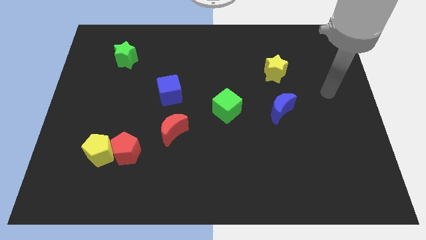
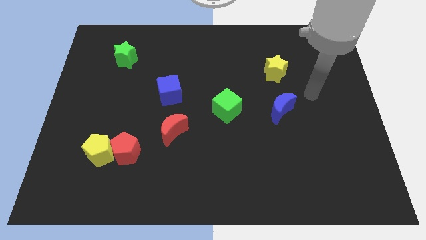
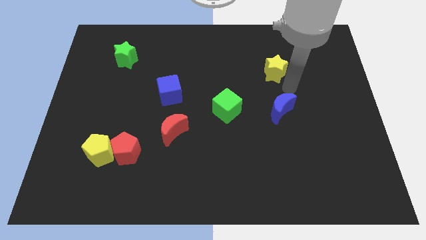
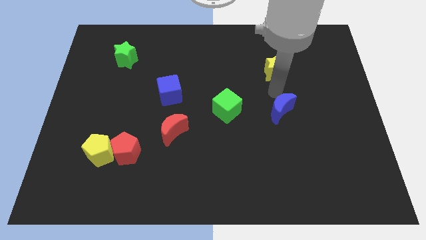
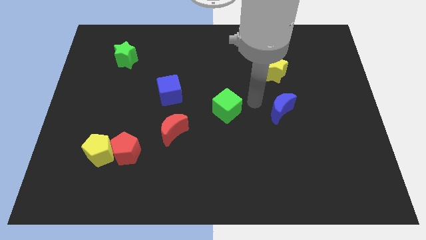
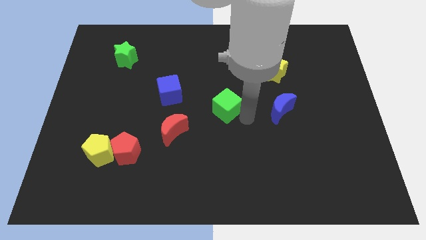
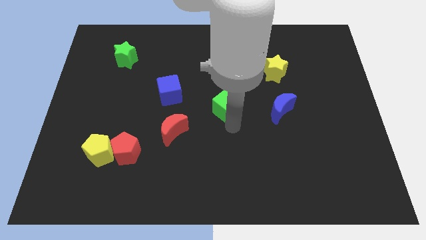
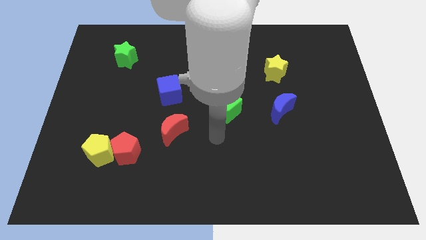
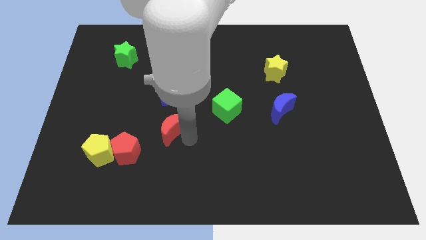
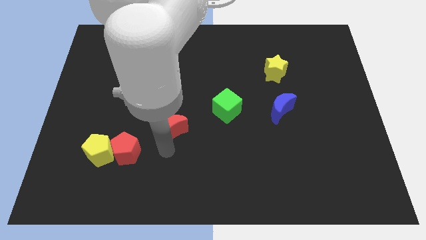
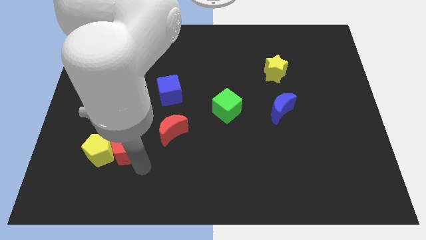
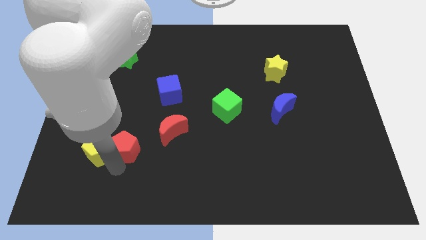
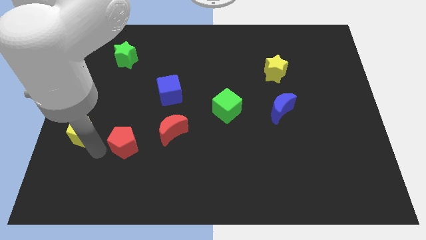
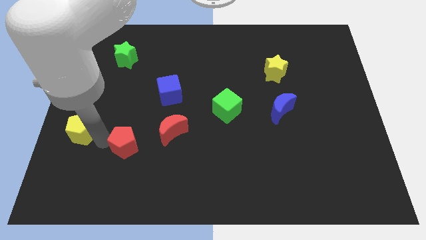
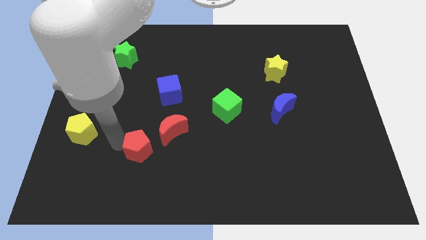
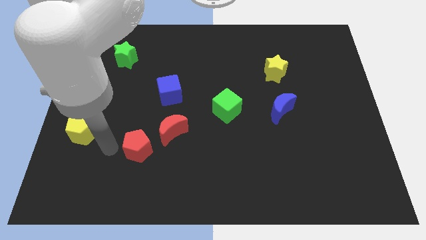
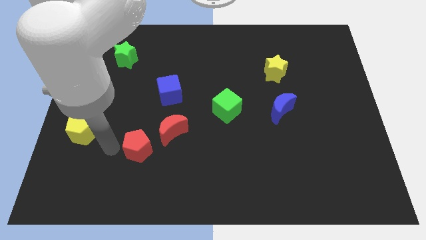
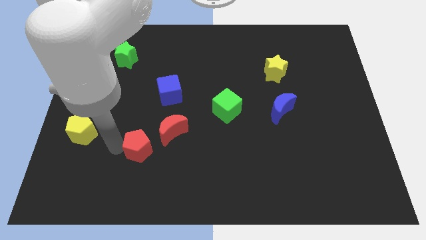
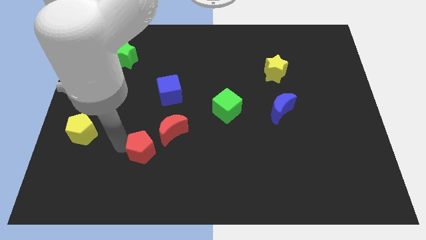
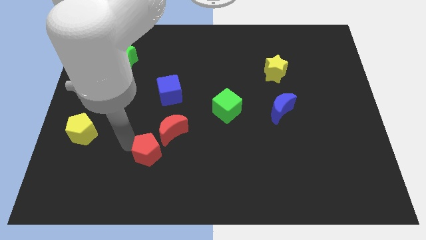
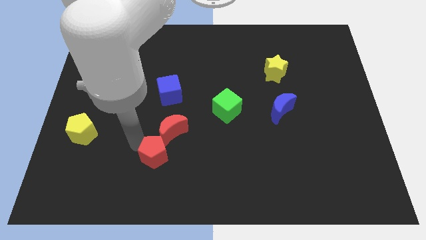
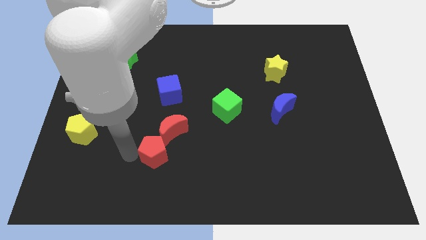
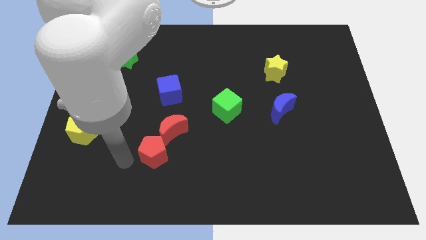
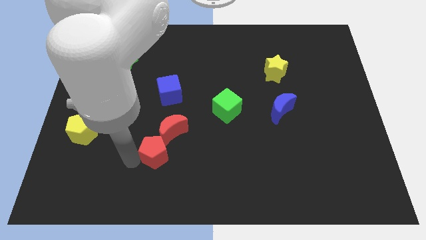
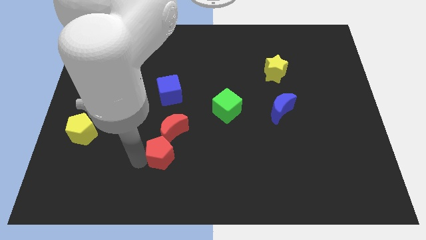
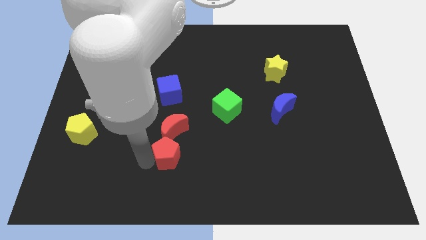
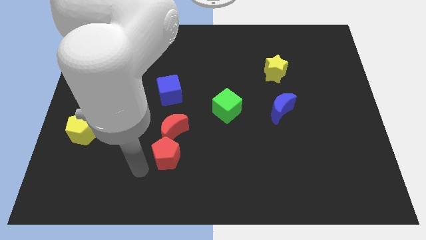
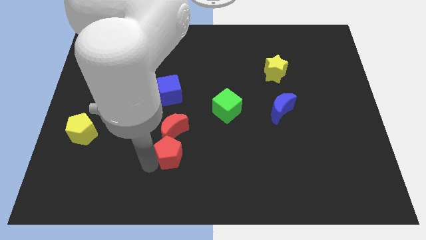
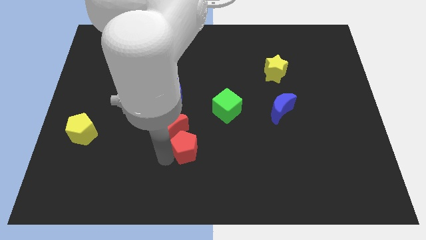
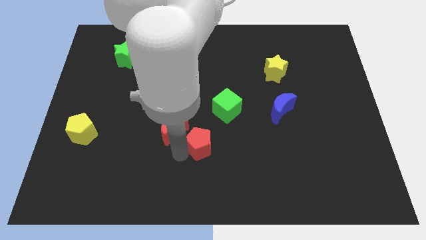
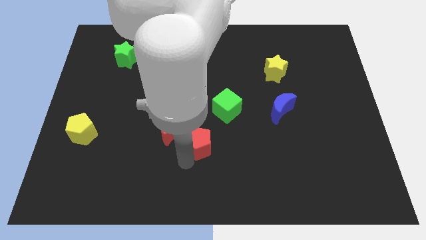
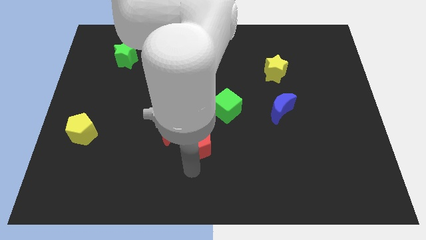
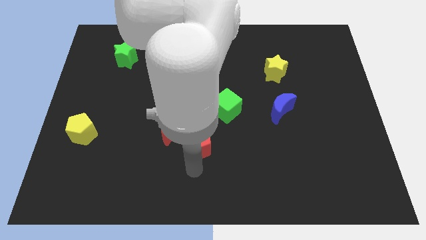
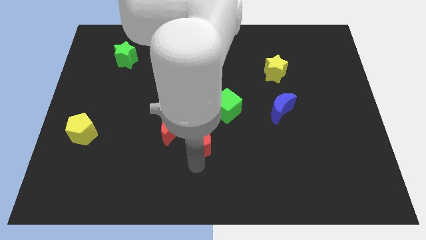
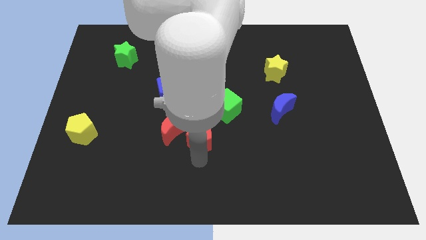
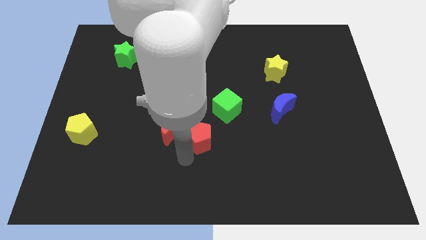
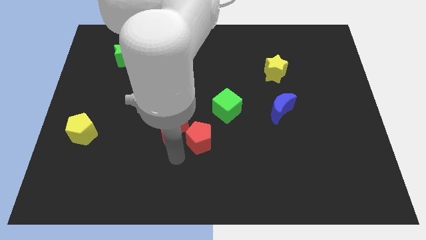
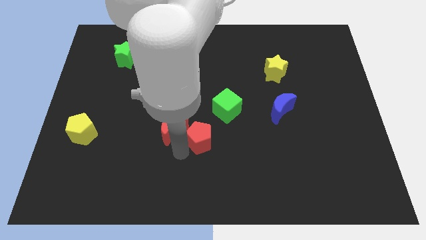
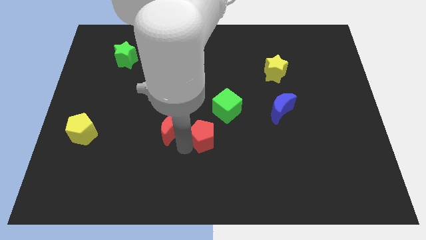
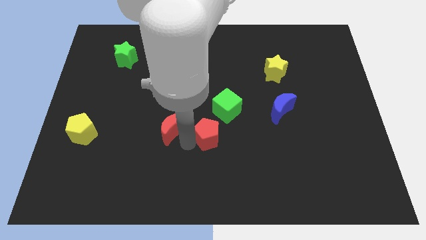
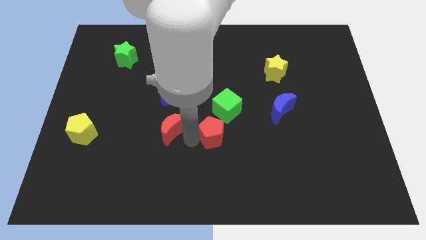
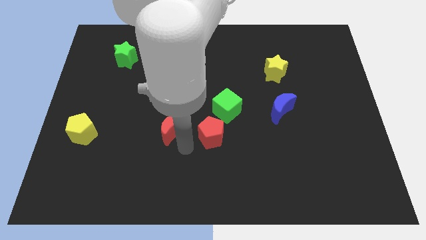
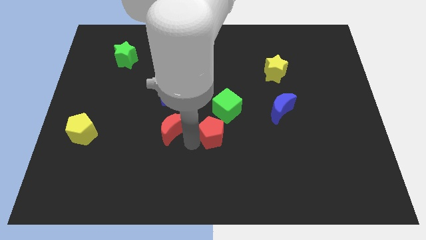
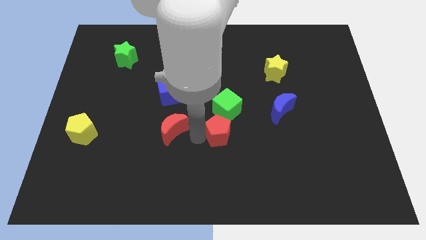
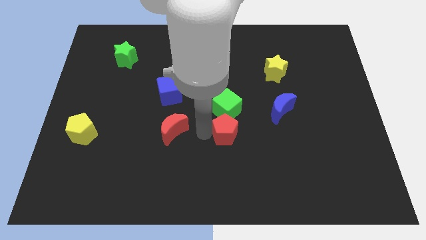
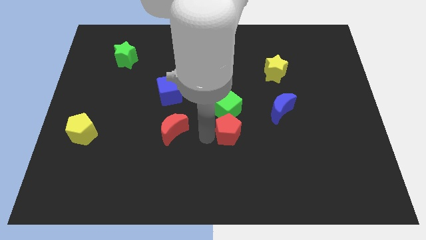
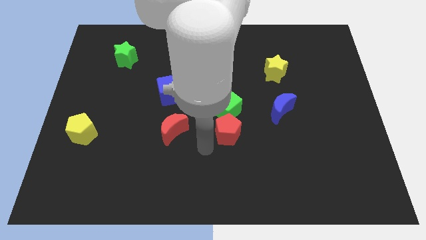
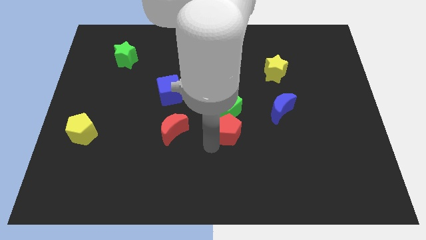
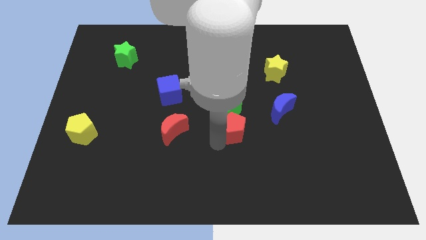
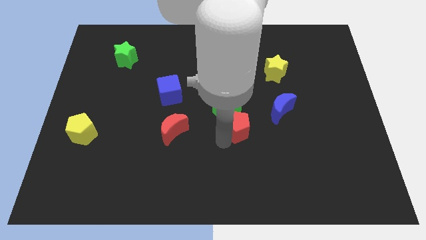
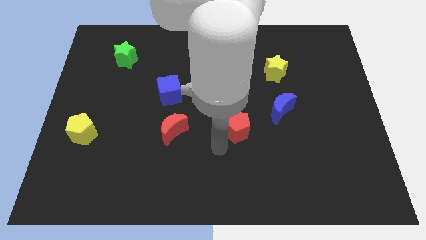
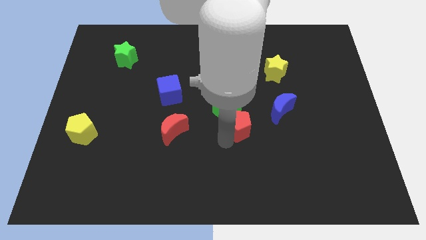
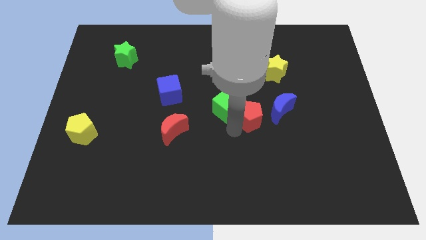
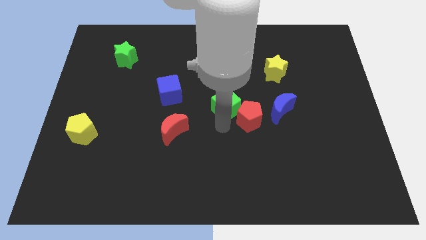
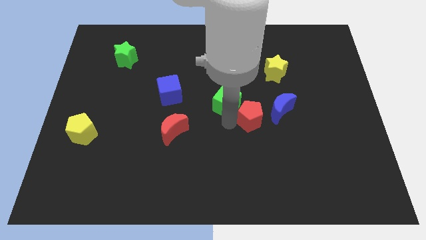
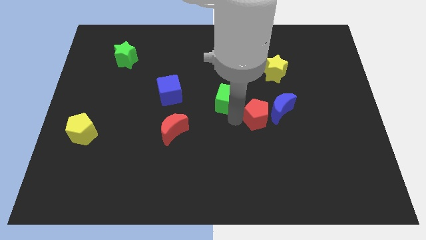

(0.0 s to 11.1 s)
put the red pentagon towards the blue moon
